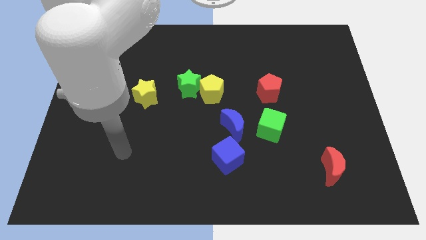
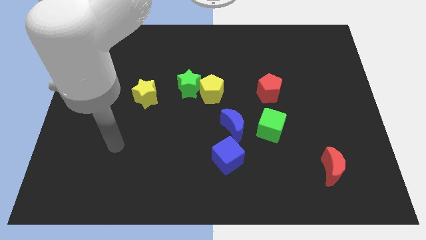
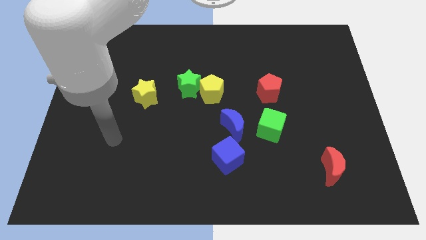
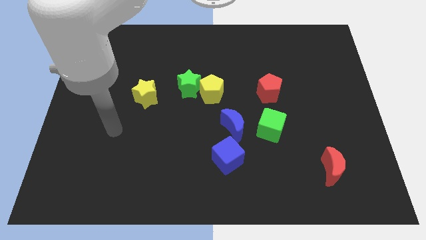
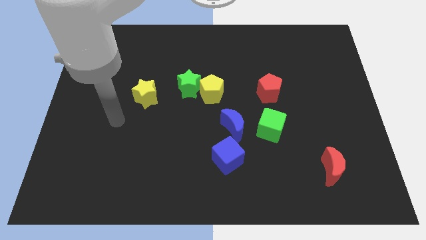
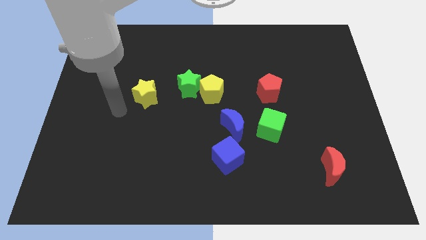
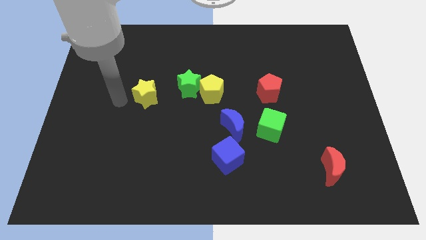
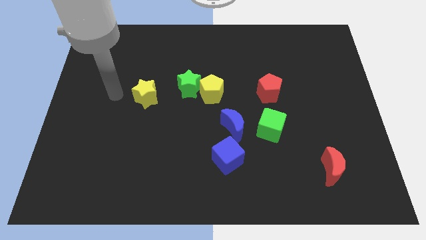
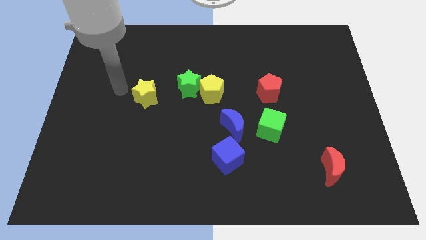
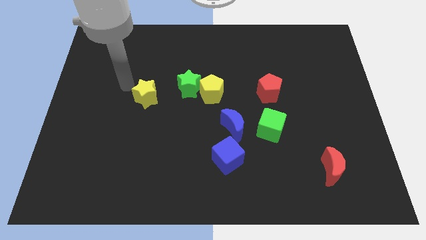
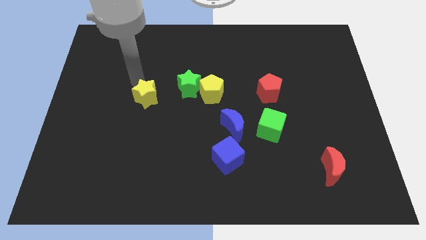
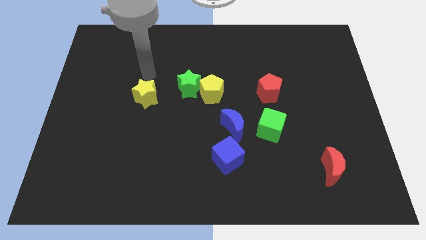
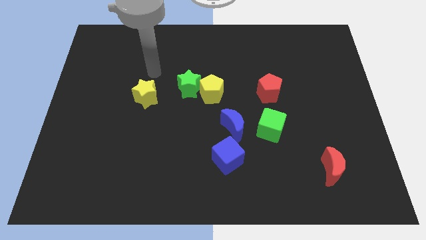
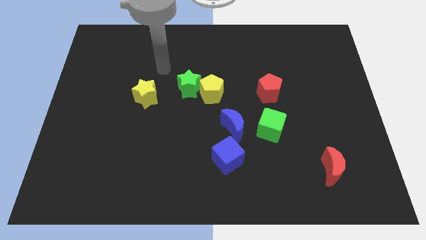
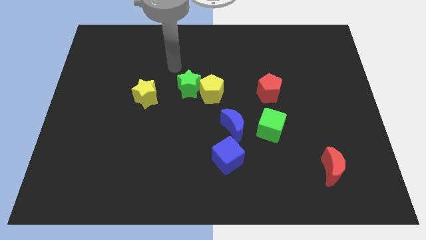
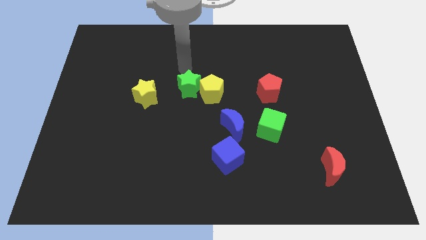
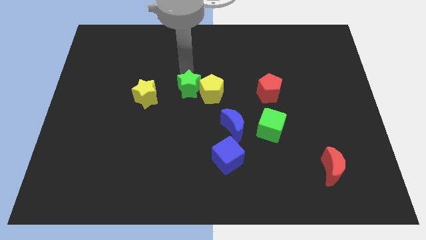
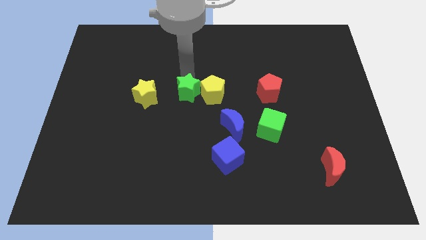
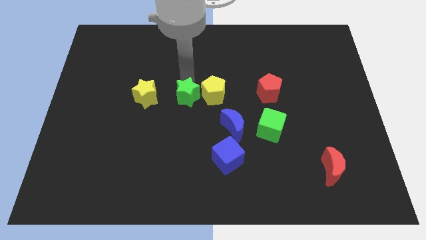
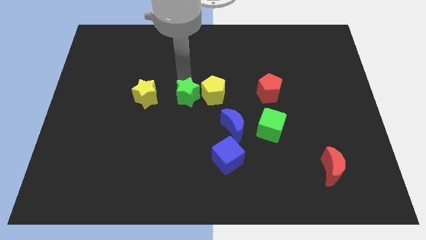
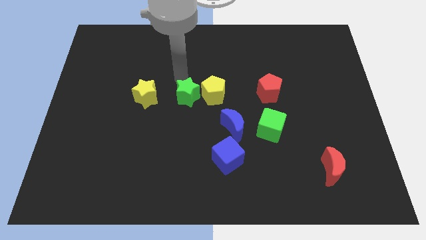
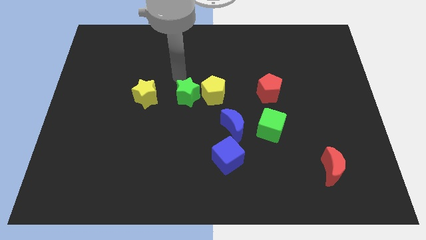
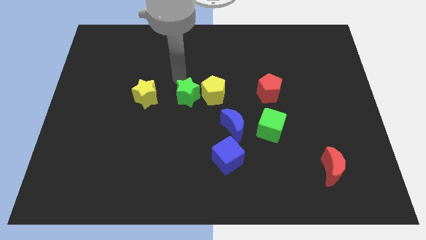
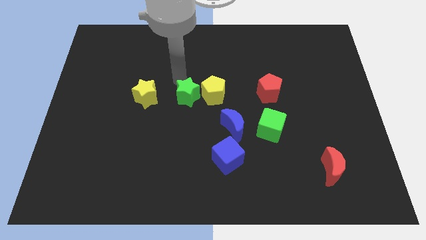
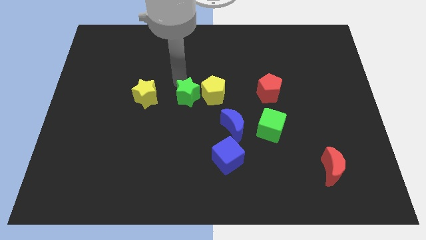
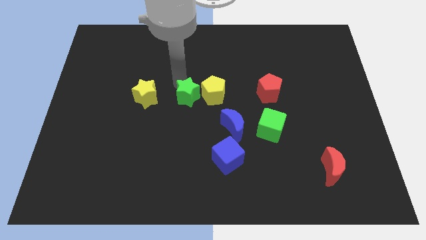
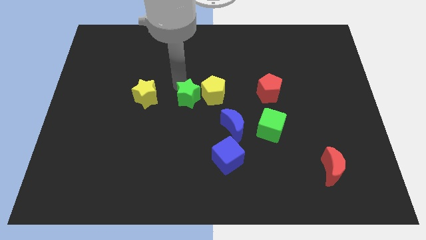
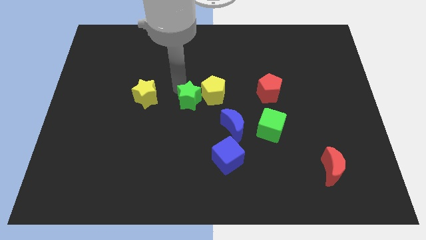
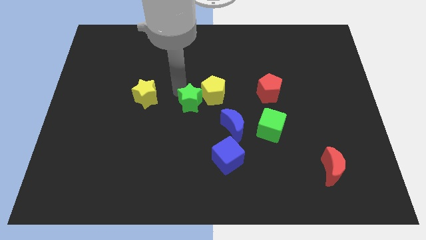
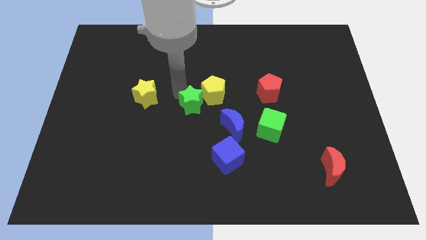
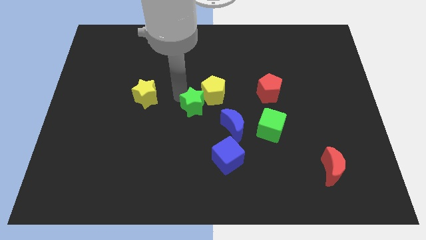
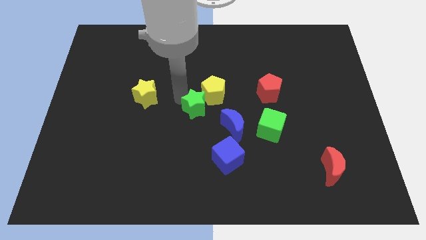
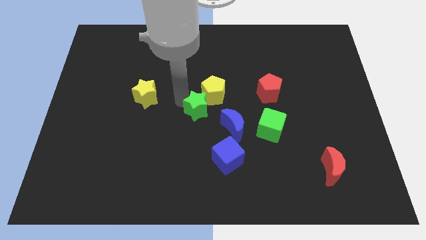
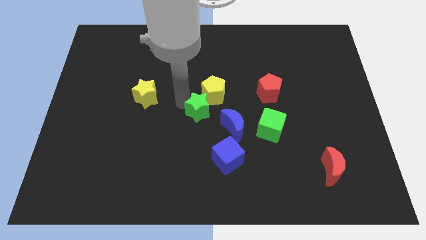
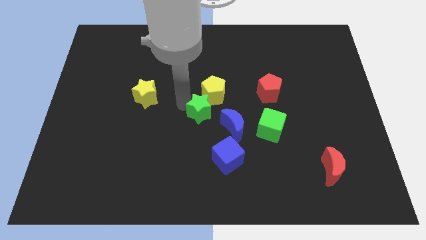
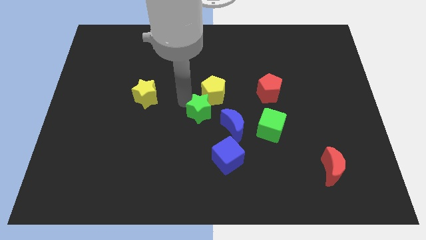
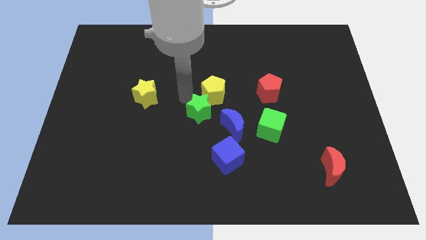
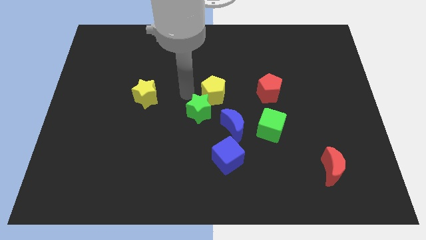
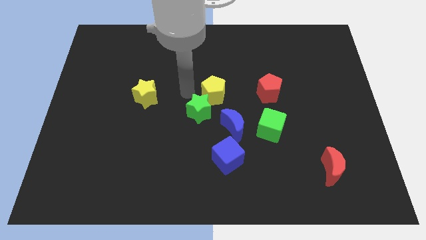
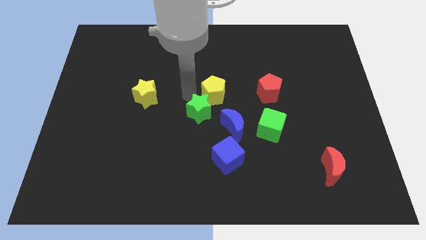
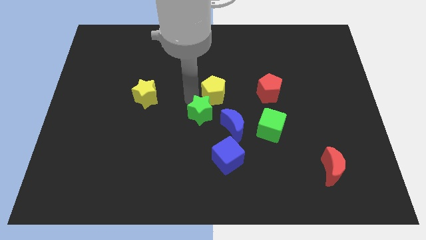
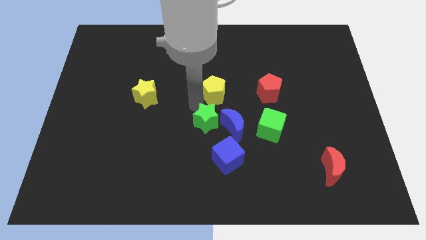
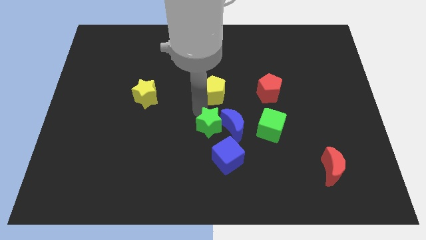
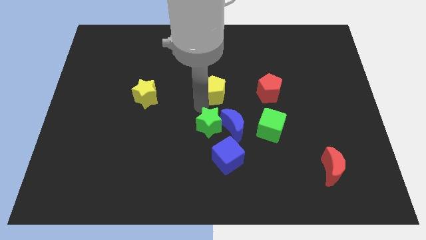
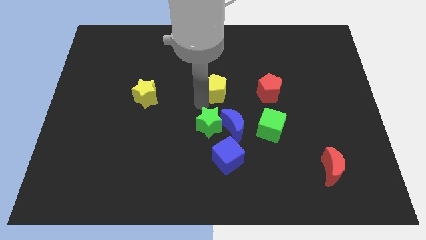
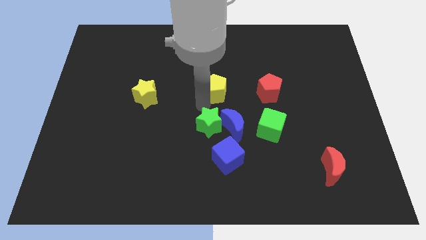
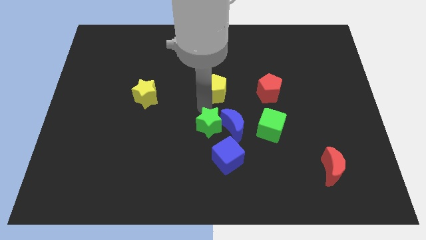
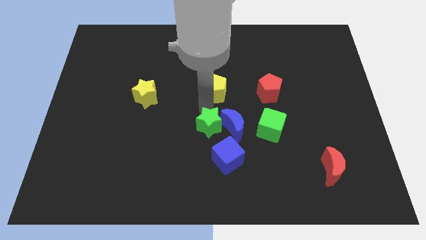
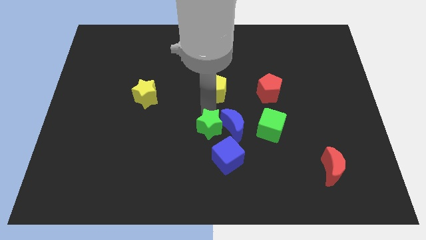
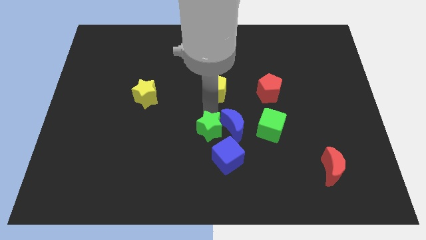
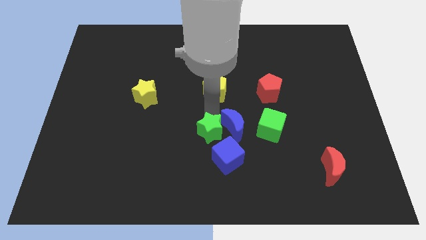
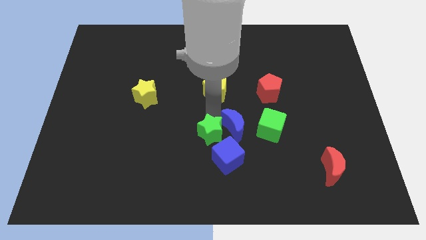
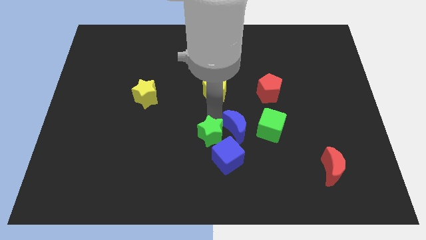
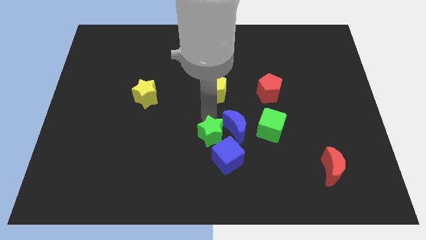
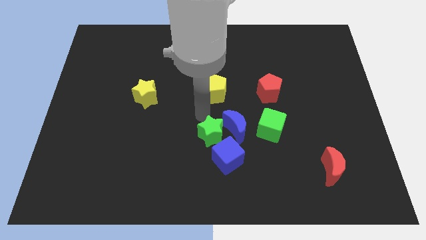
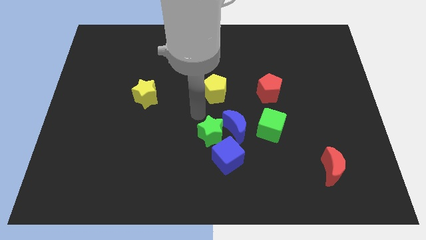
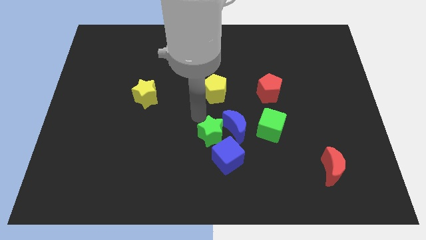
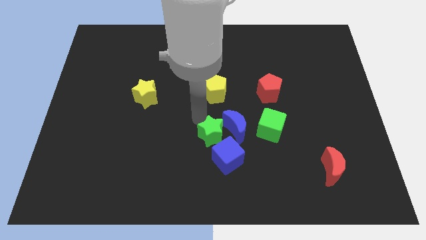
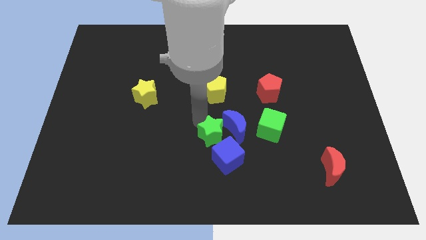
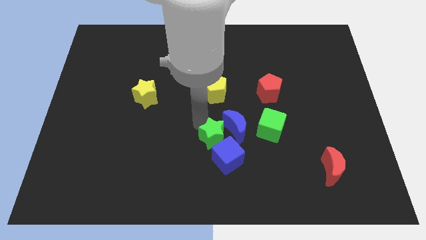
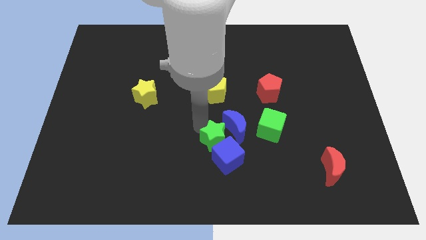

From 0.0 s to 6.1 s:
put the green star to the blue cube
